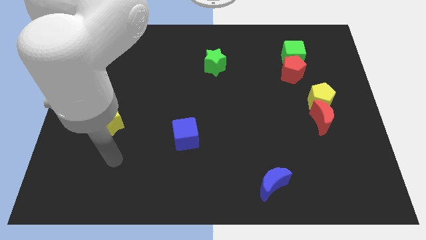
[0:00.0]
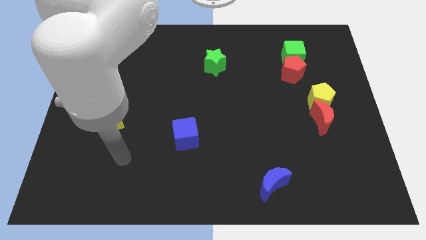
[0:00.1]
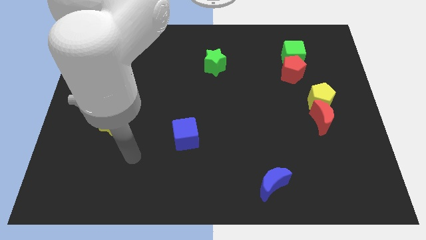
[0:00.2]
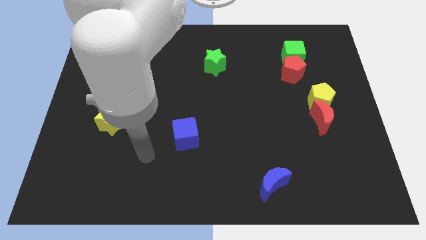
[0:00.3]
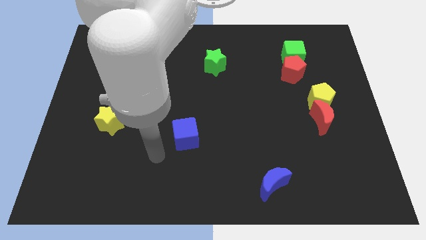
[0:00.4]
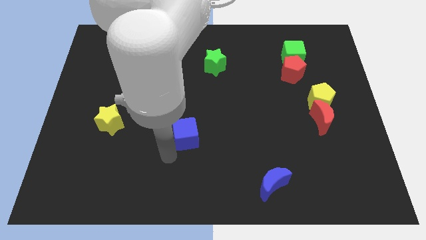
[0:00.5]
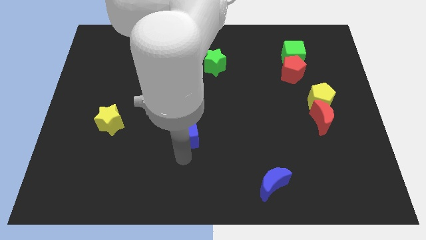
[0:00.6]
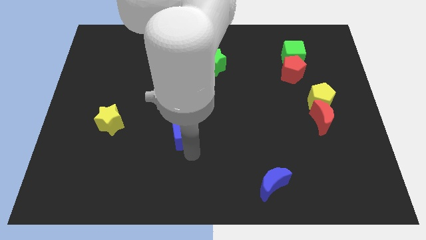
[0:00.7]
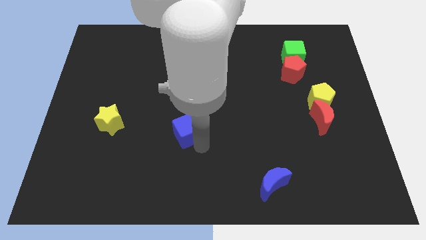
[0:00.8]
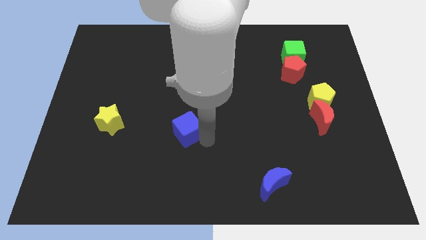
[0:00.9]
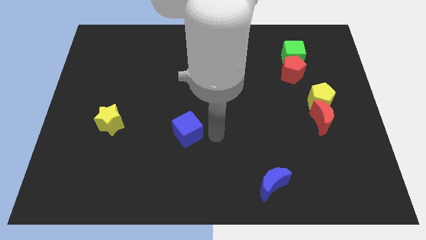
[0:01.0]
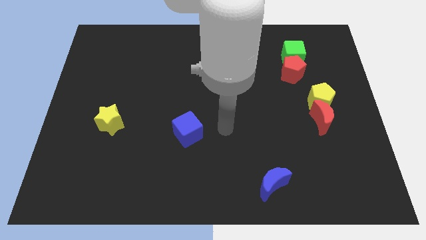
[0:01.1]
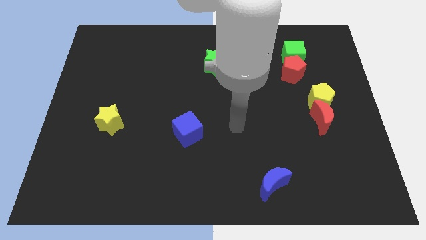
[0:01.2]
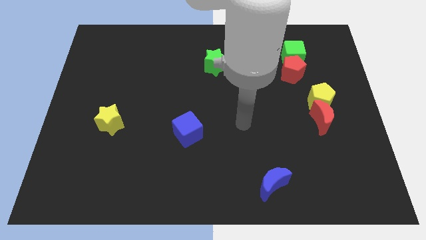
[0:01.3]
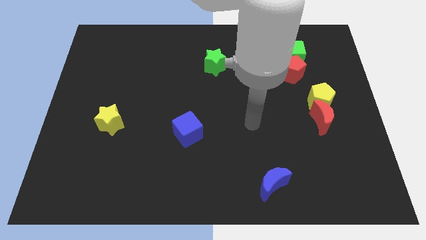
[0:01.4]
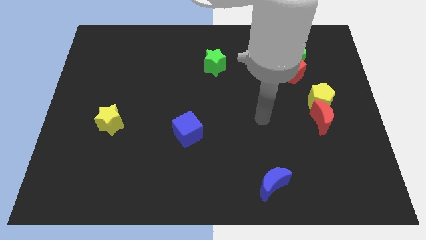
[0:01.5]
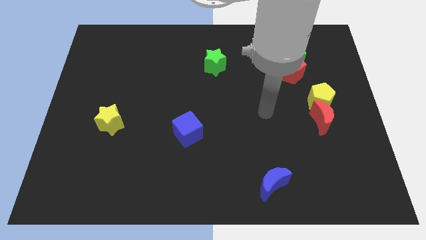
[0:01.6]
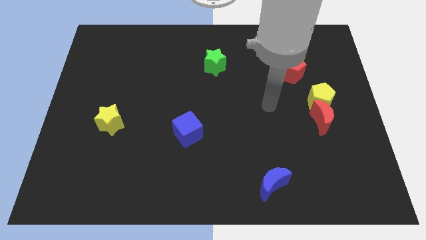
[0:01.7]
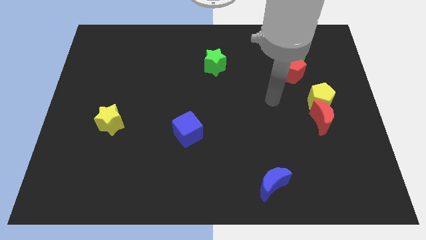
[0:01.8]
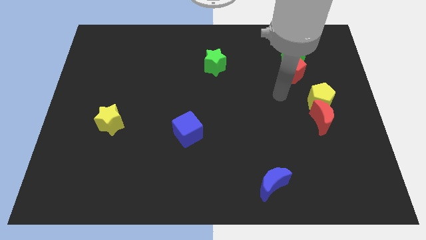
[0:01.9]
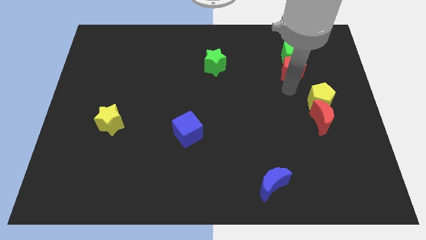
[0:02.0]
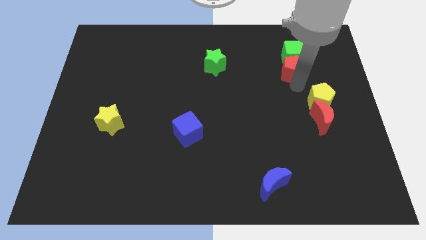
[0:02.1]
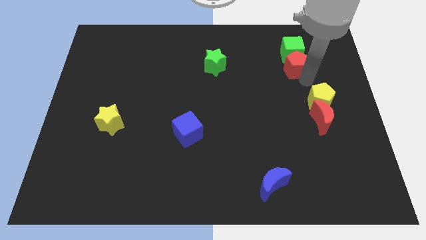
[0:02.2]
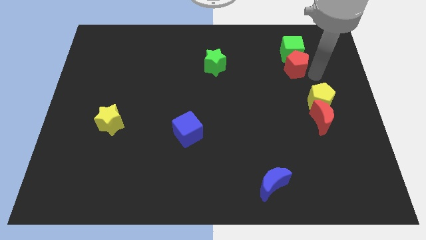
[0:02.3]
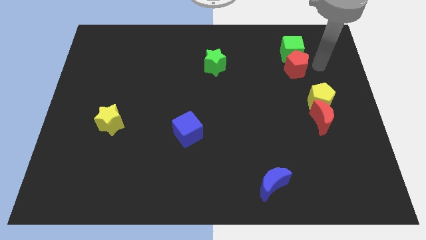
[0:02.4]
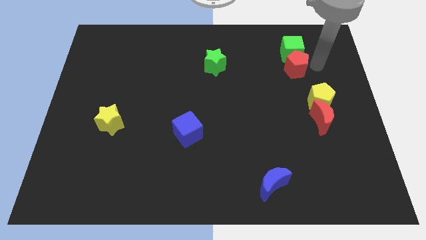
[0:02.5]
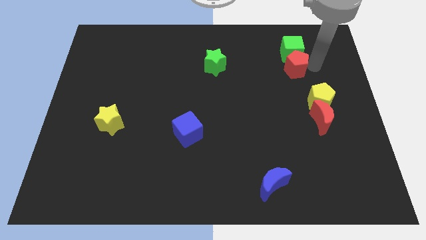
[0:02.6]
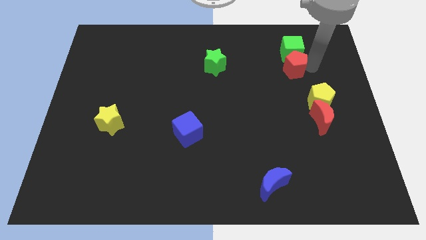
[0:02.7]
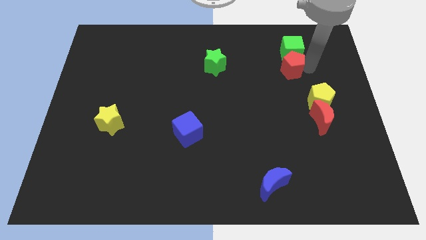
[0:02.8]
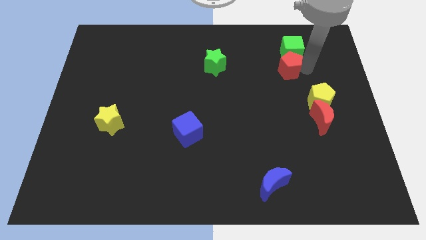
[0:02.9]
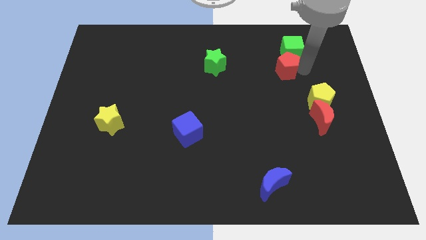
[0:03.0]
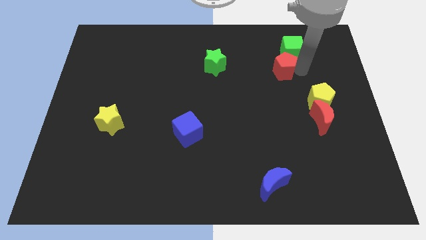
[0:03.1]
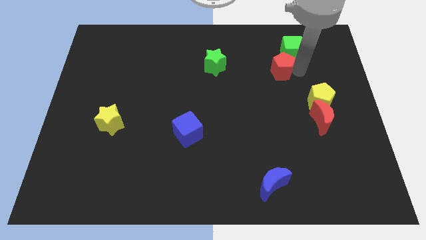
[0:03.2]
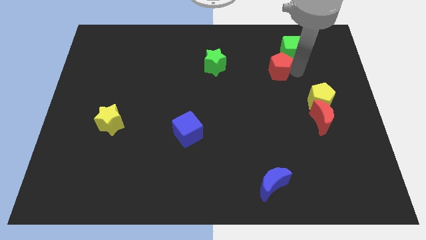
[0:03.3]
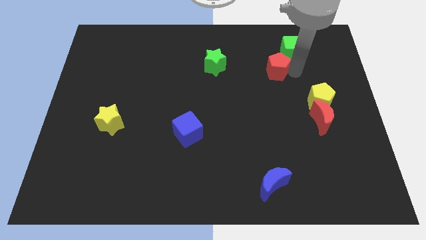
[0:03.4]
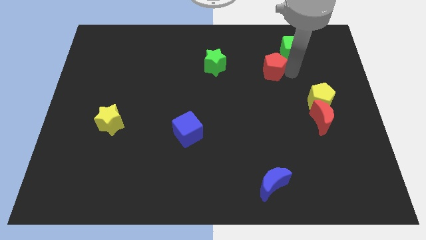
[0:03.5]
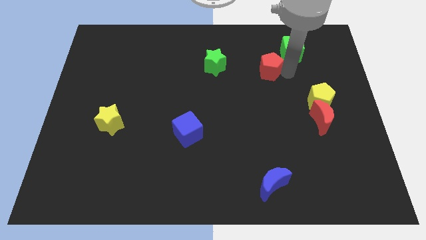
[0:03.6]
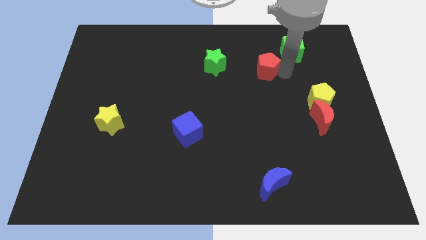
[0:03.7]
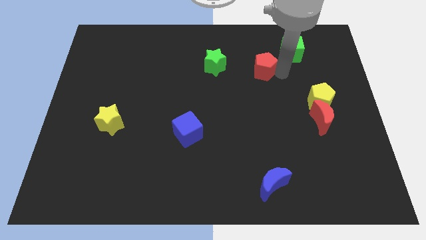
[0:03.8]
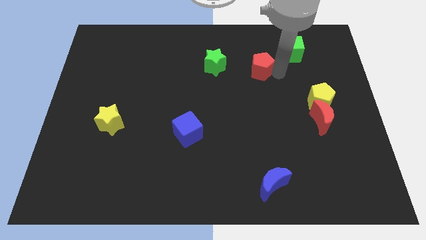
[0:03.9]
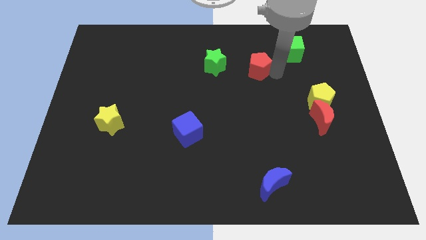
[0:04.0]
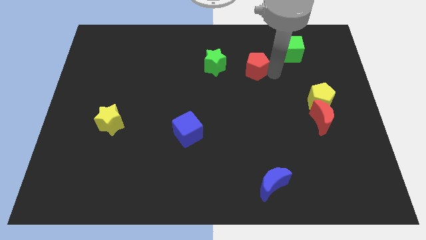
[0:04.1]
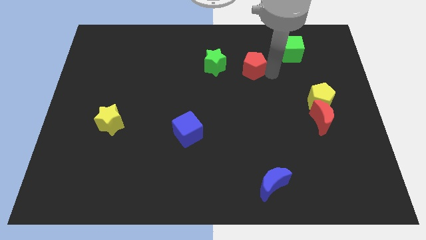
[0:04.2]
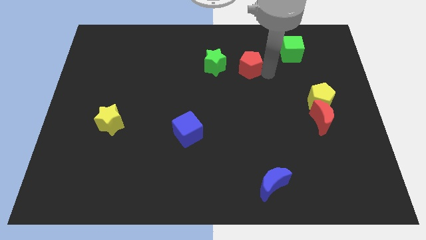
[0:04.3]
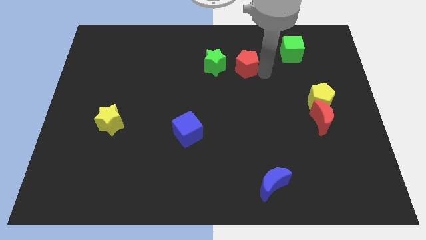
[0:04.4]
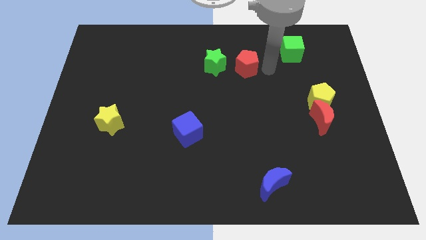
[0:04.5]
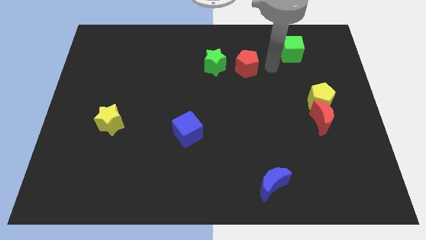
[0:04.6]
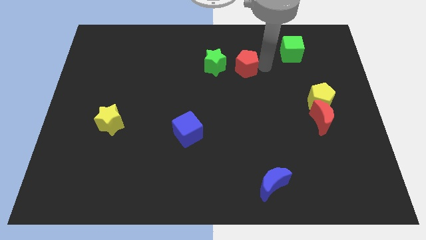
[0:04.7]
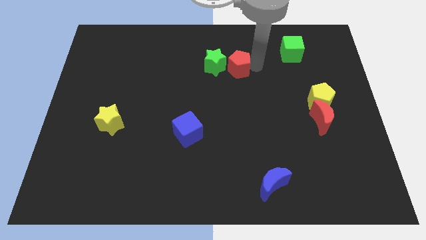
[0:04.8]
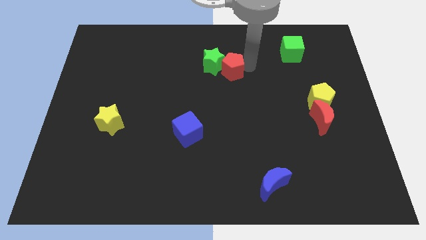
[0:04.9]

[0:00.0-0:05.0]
put the red pentagon next to the green star

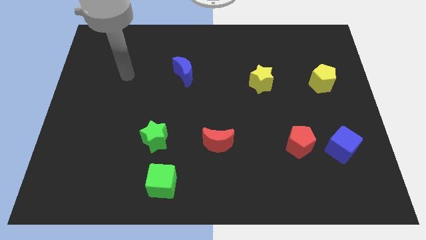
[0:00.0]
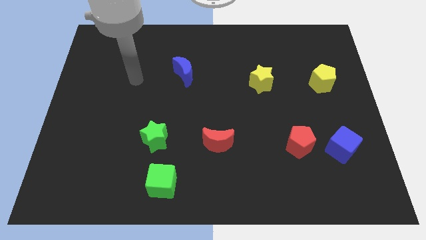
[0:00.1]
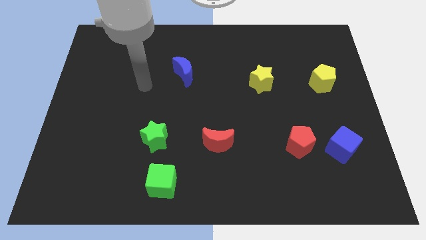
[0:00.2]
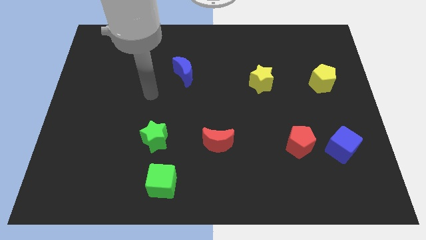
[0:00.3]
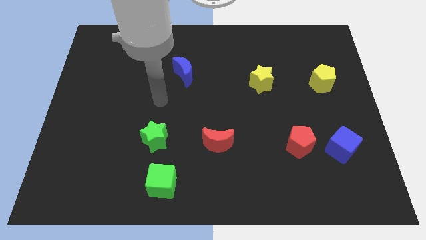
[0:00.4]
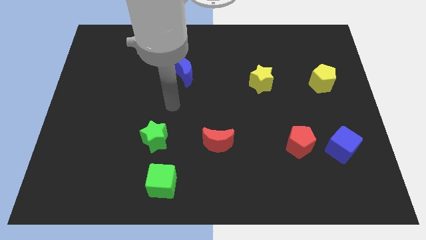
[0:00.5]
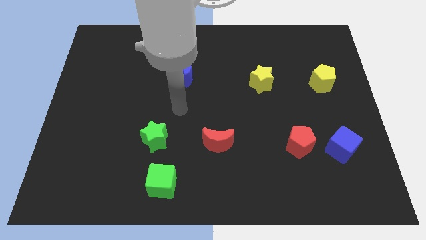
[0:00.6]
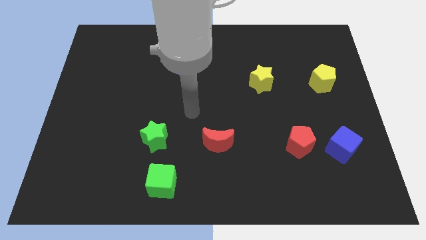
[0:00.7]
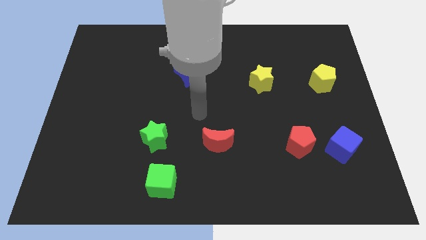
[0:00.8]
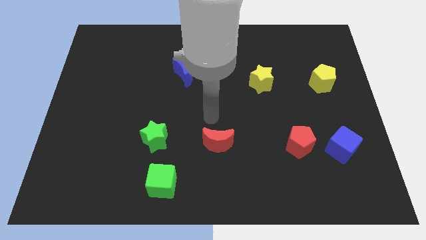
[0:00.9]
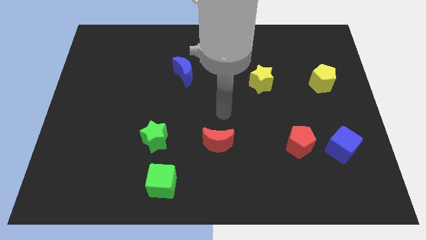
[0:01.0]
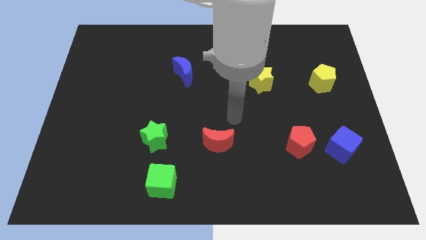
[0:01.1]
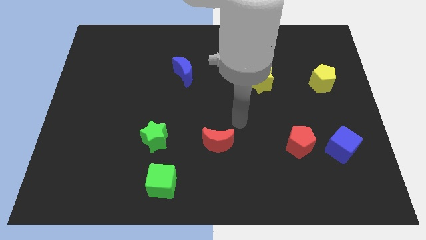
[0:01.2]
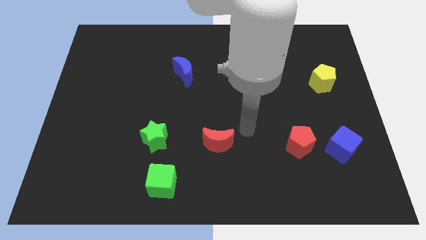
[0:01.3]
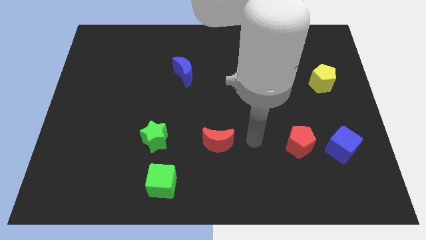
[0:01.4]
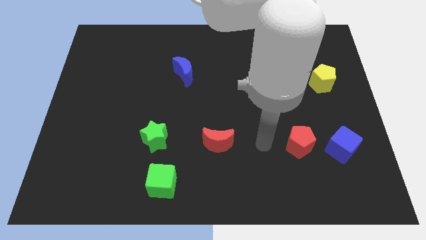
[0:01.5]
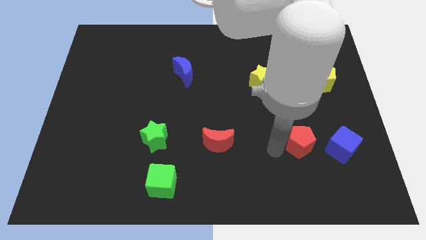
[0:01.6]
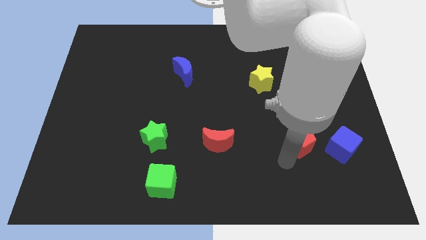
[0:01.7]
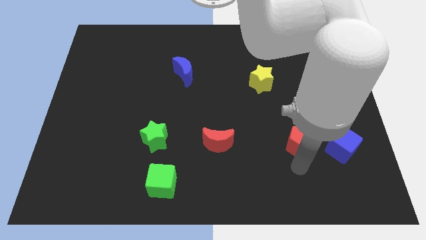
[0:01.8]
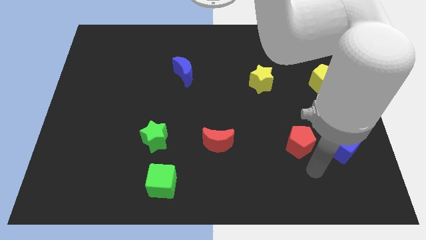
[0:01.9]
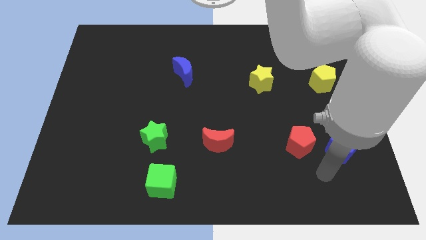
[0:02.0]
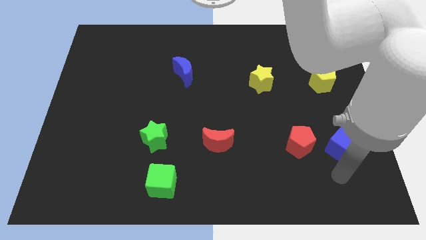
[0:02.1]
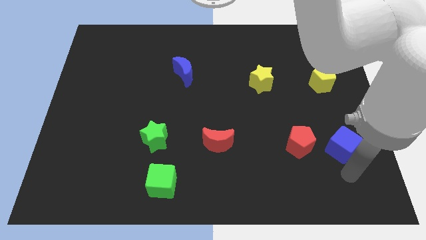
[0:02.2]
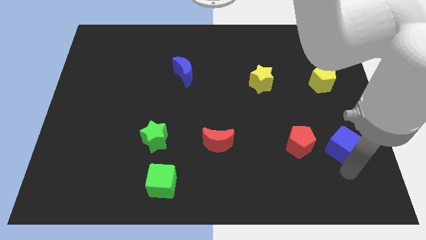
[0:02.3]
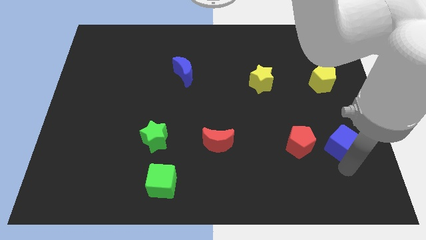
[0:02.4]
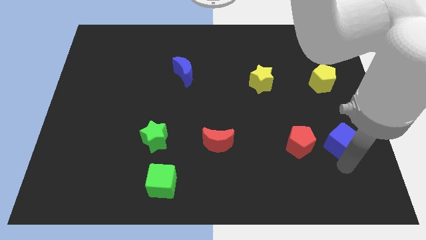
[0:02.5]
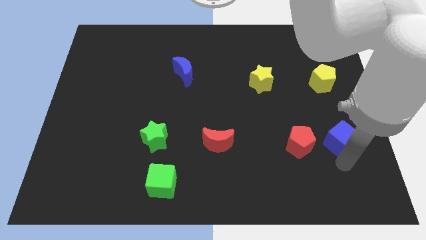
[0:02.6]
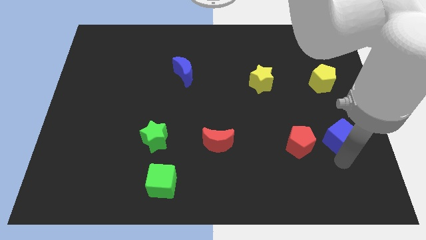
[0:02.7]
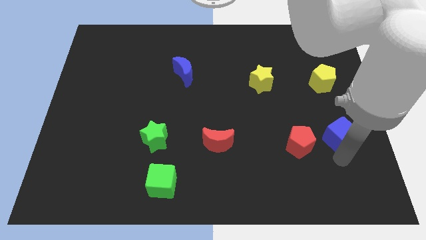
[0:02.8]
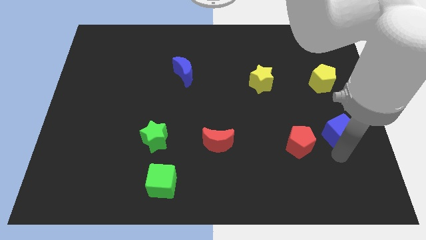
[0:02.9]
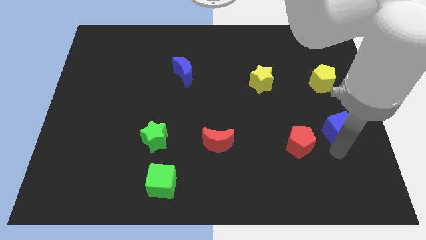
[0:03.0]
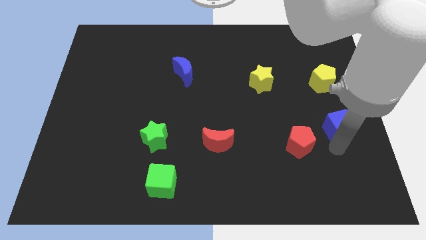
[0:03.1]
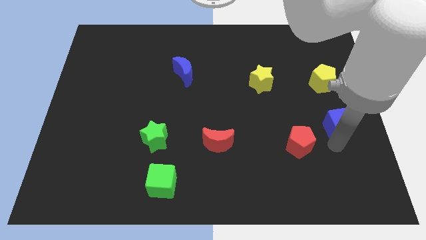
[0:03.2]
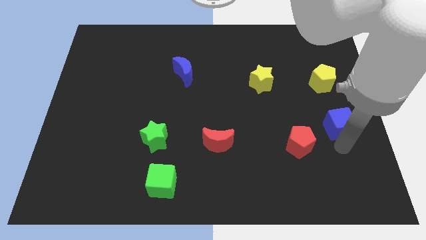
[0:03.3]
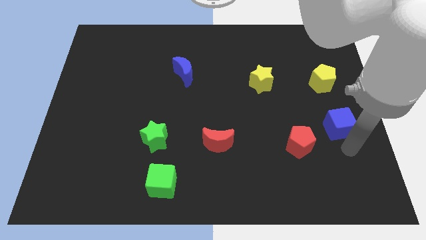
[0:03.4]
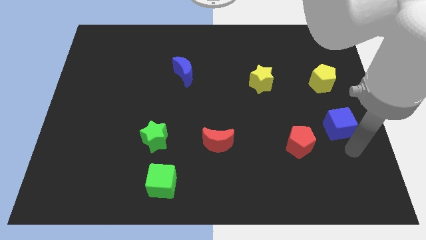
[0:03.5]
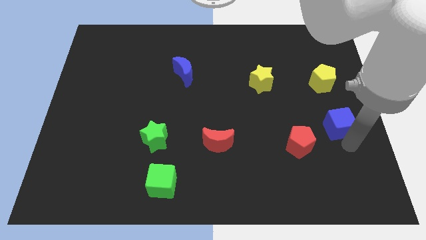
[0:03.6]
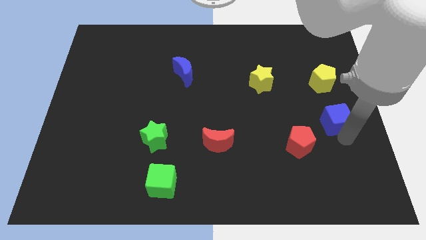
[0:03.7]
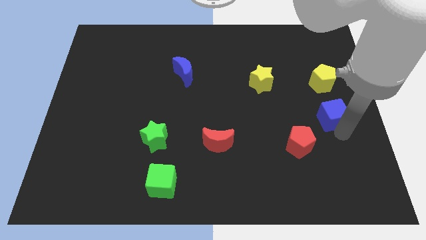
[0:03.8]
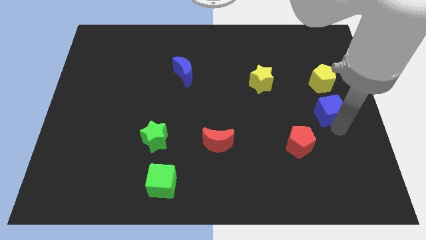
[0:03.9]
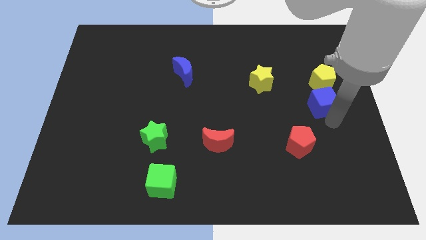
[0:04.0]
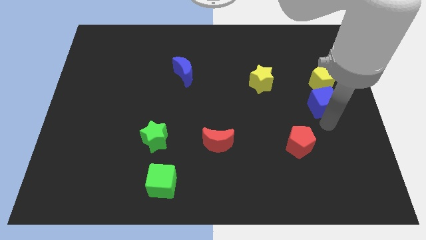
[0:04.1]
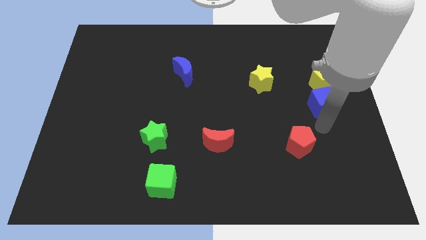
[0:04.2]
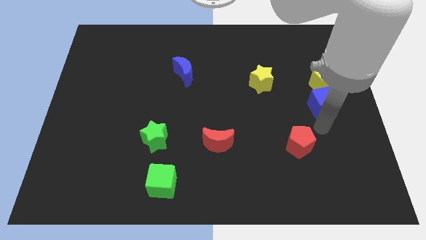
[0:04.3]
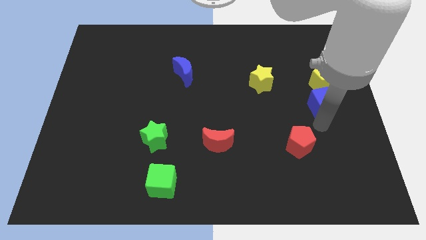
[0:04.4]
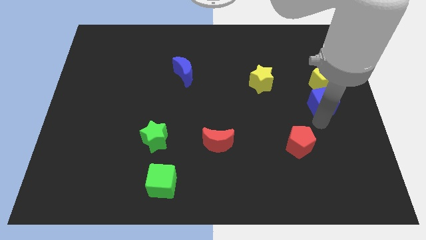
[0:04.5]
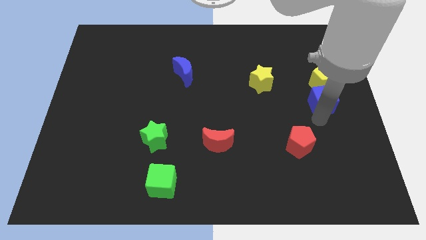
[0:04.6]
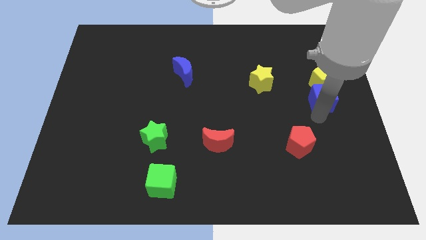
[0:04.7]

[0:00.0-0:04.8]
slide the blue cube close to the yellow pentagon
